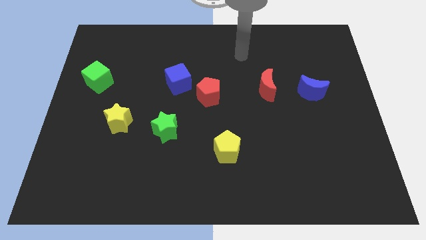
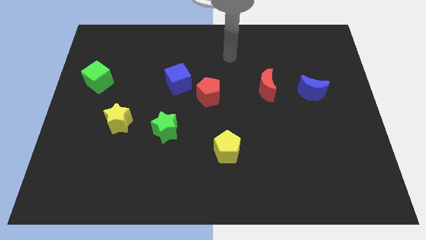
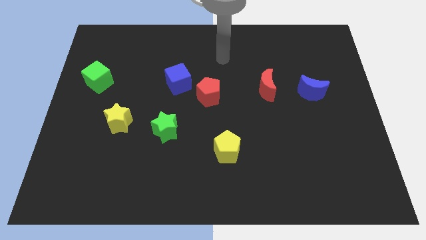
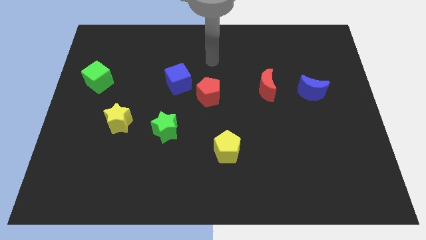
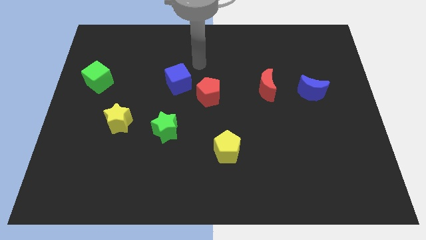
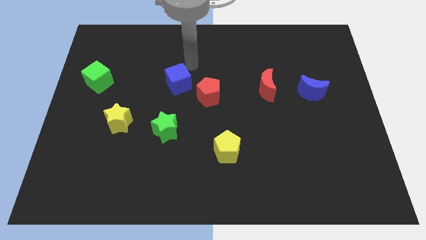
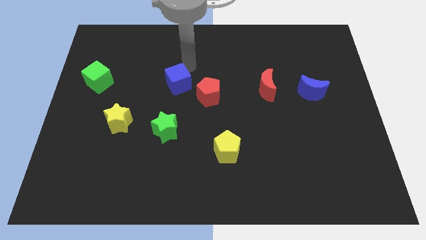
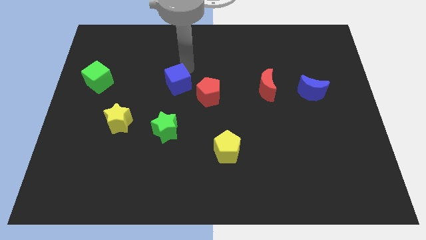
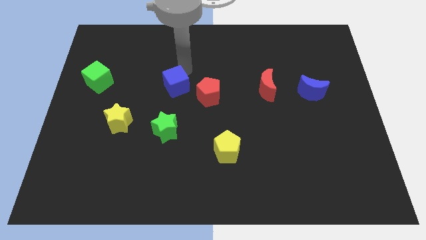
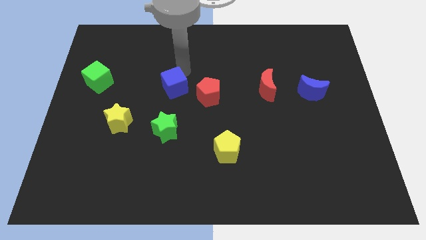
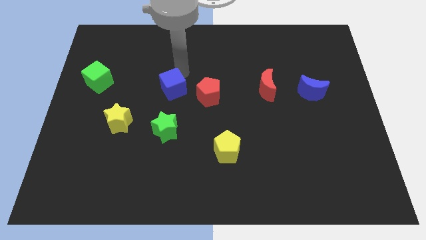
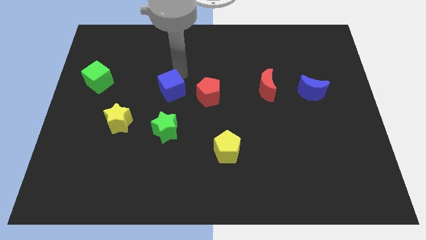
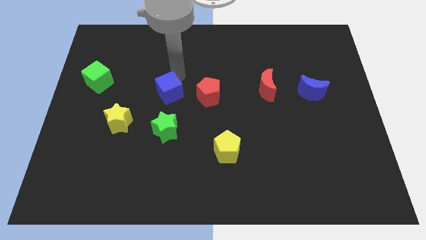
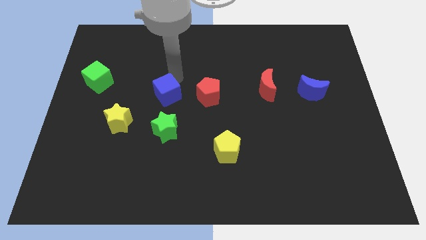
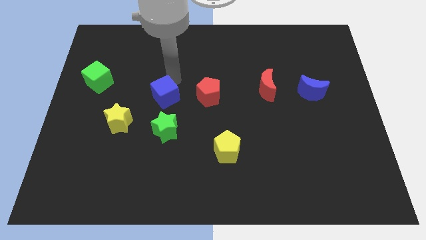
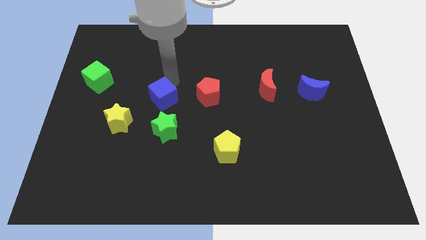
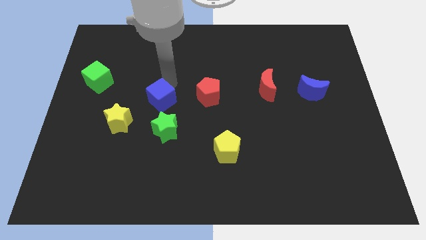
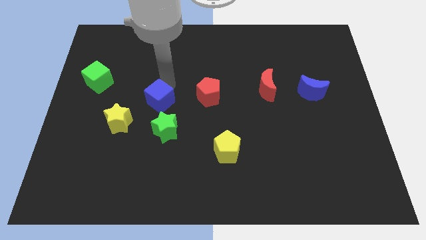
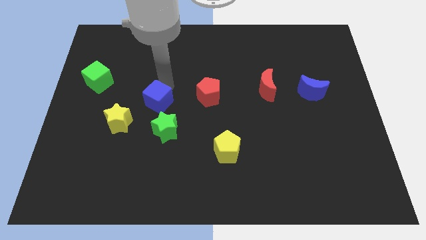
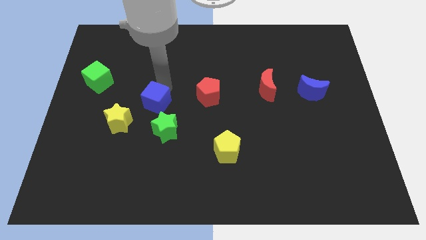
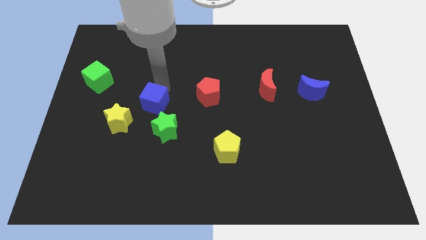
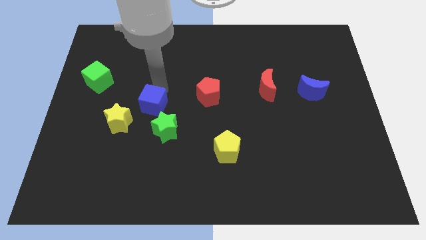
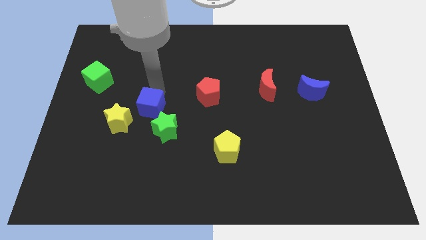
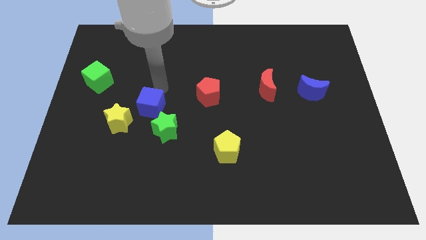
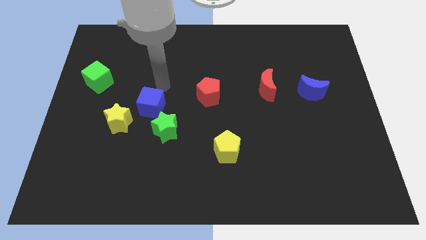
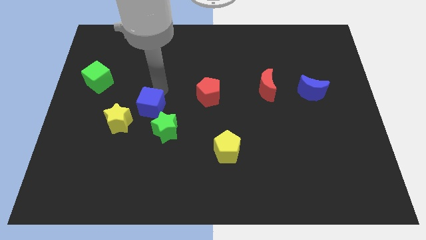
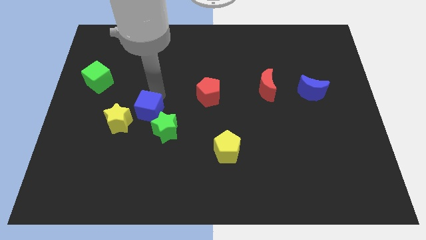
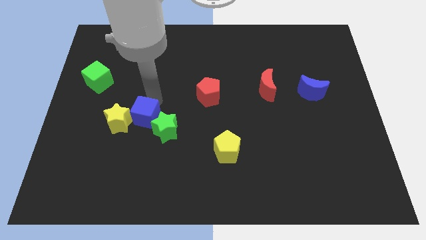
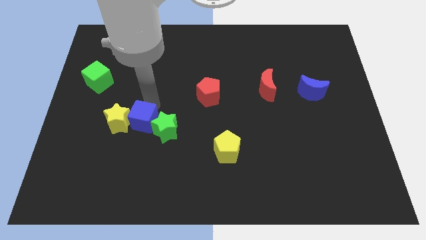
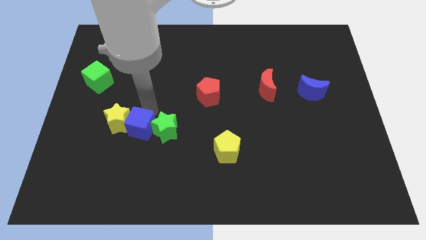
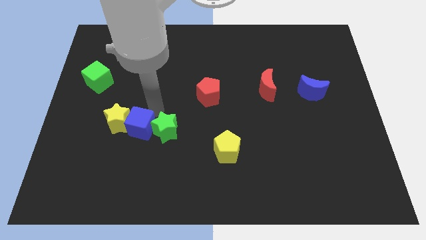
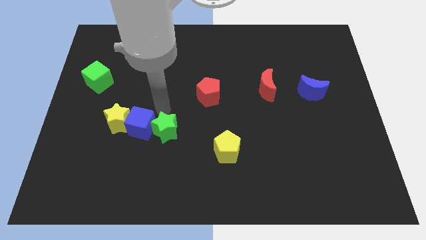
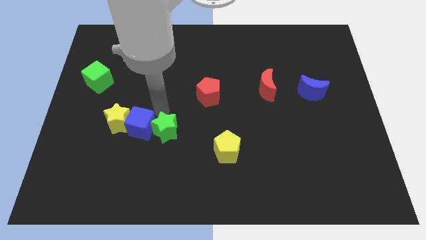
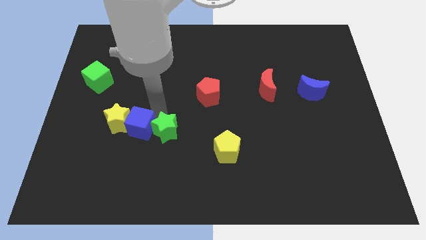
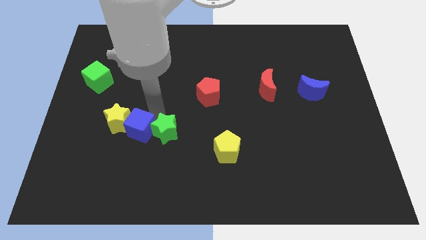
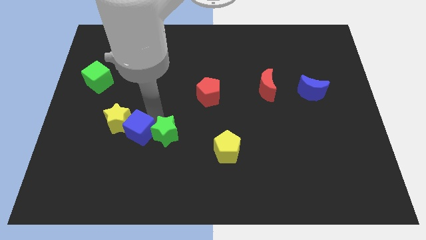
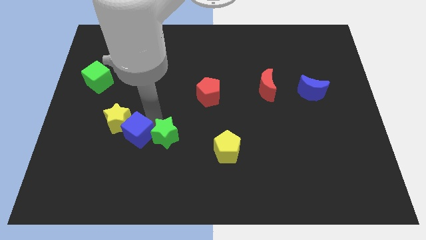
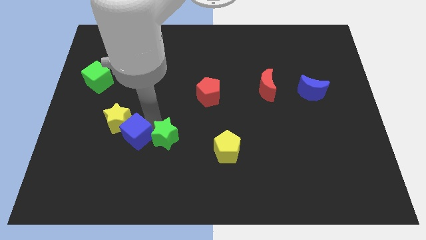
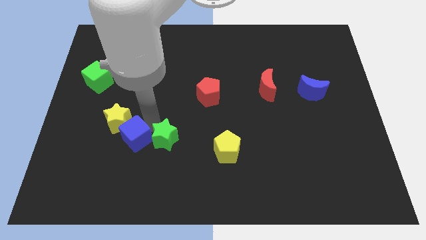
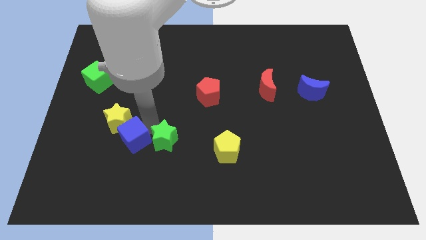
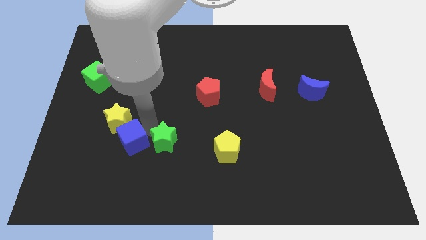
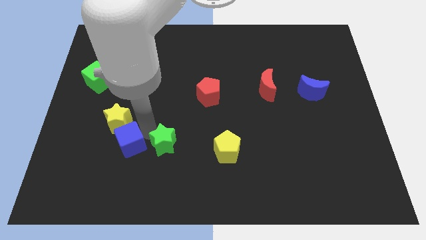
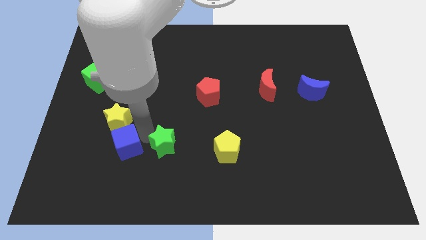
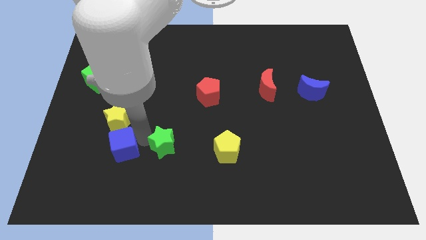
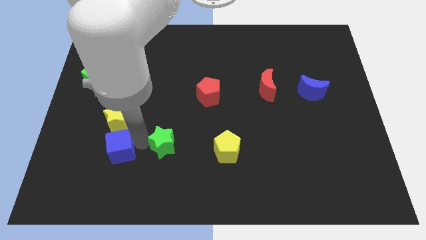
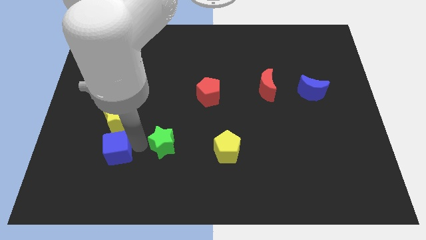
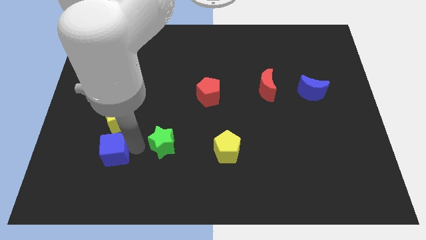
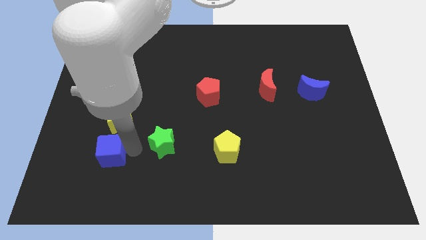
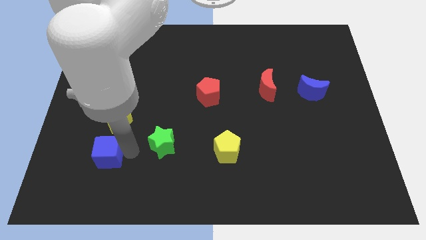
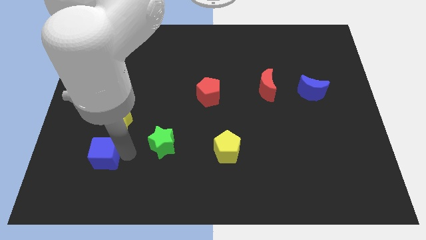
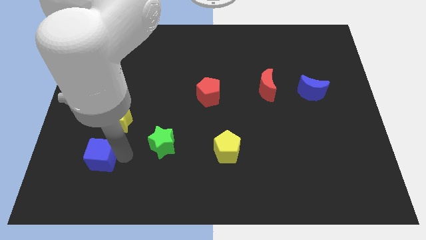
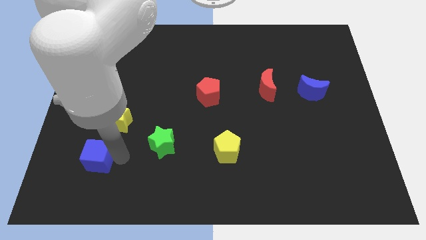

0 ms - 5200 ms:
slide the blue cube to the bottom left side of the yellow star

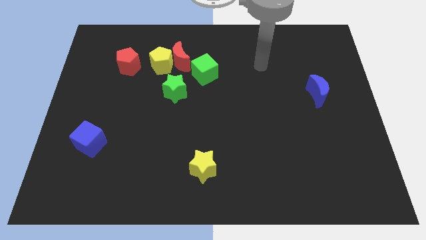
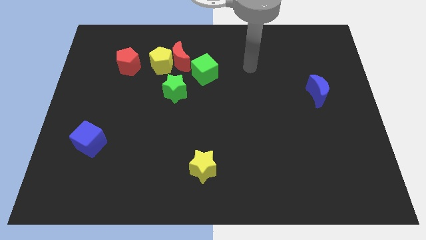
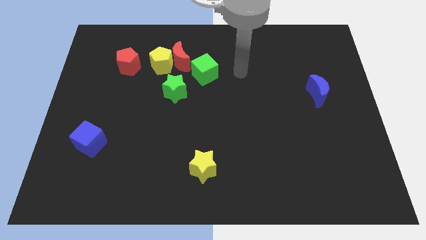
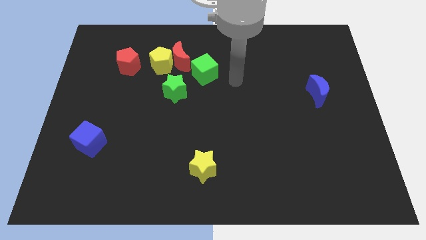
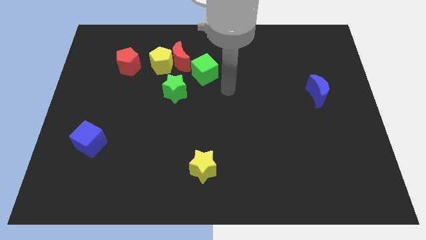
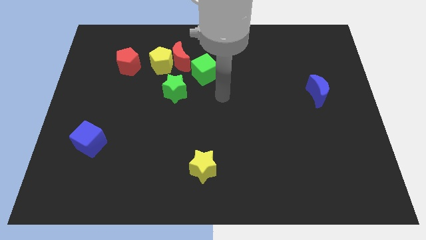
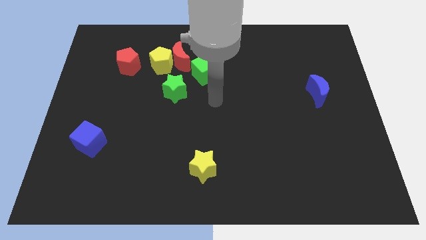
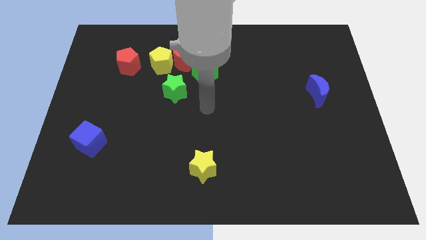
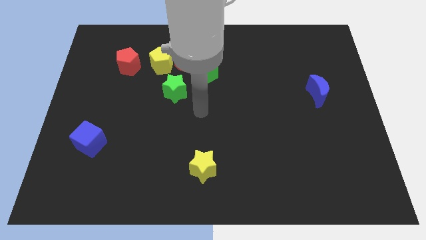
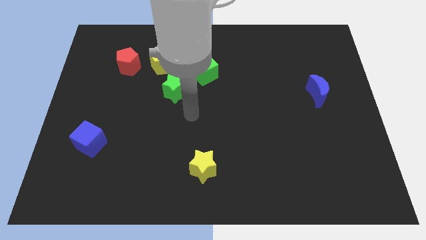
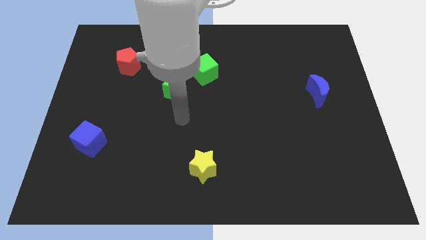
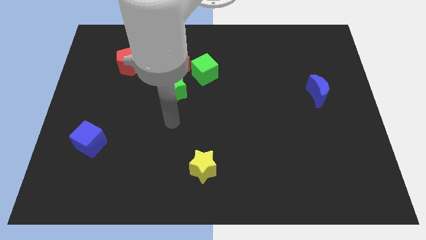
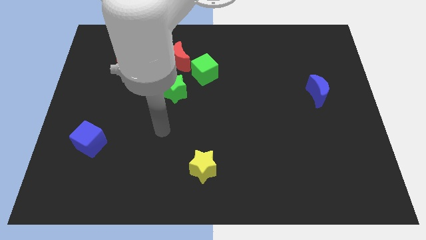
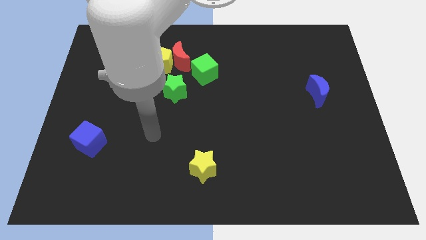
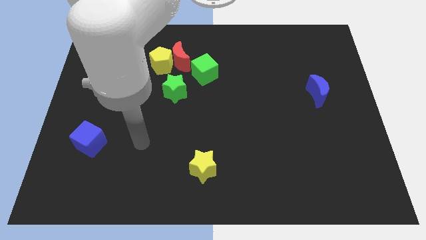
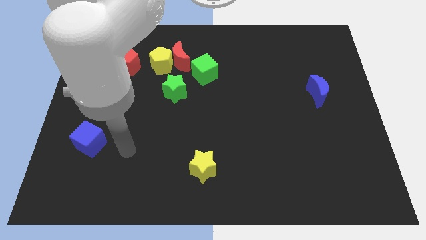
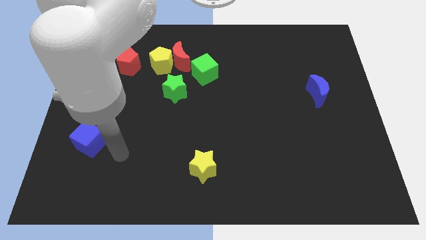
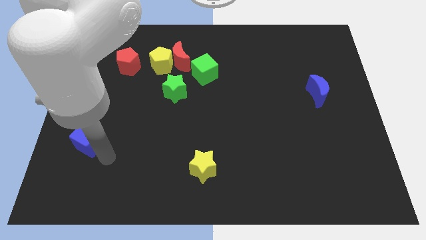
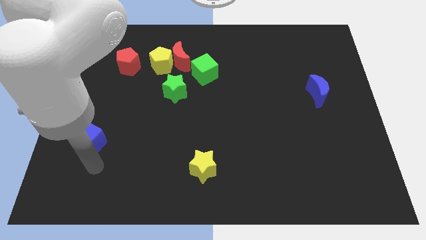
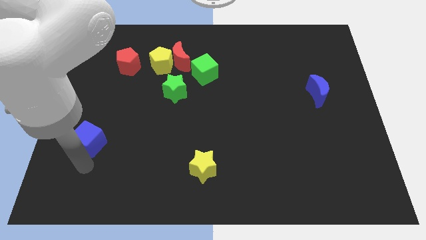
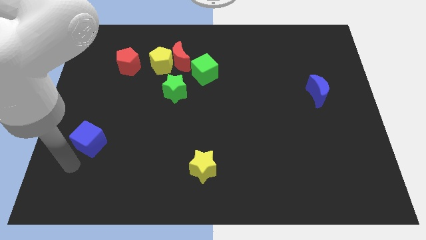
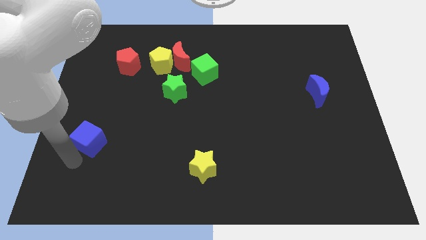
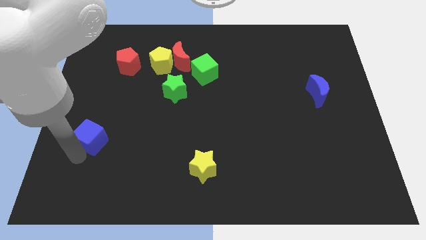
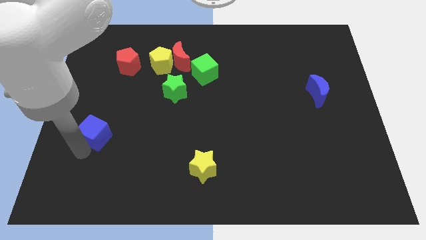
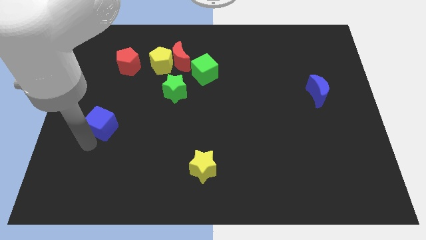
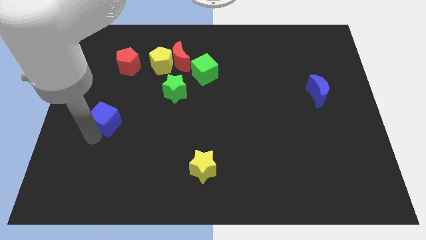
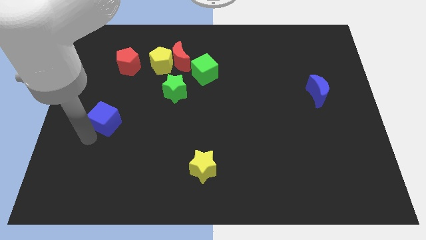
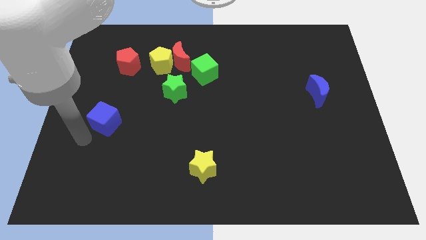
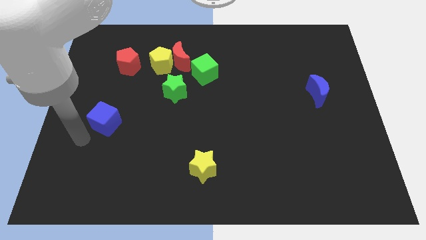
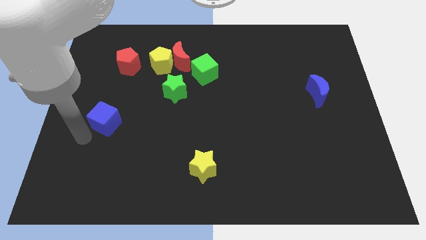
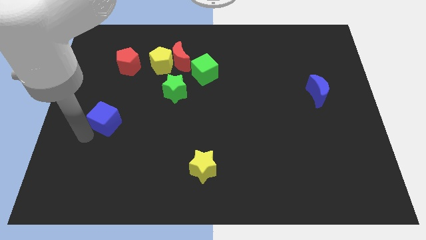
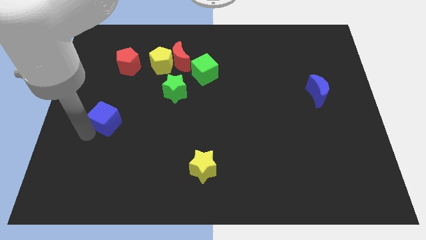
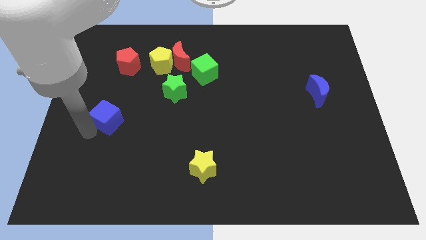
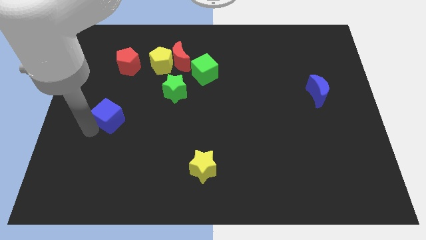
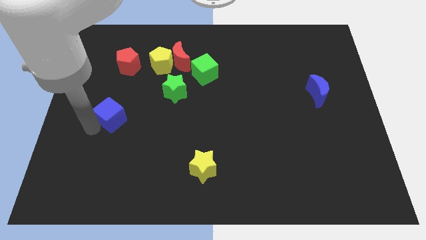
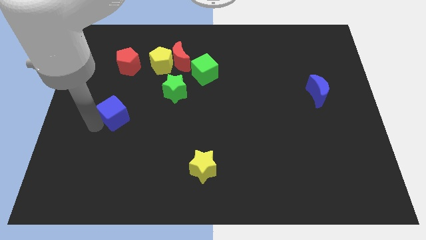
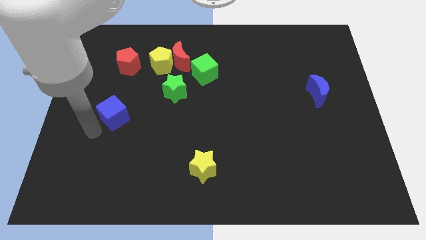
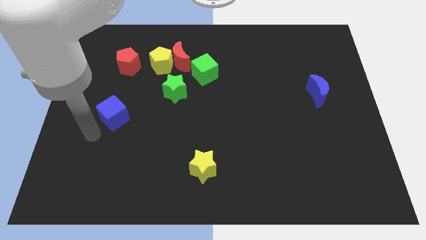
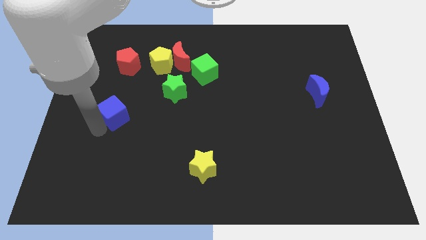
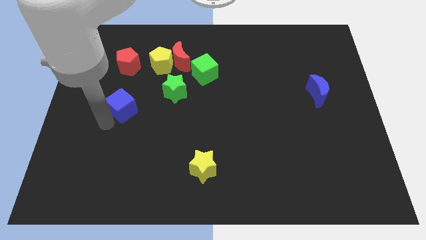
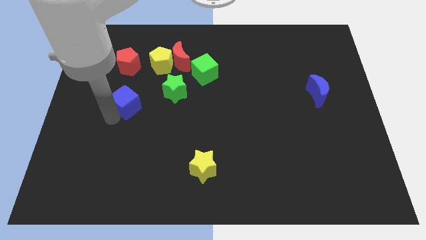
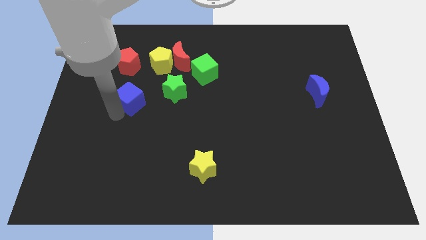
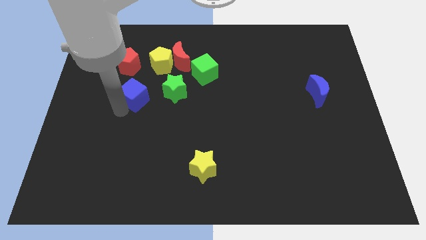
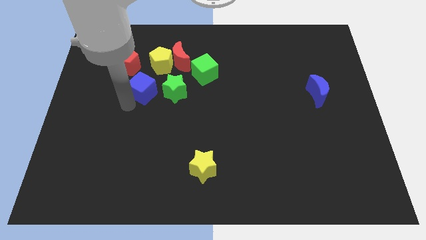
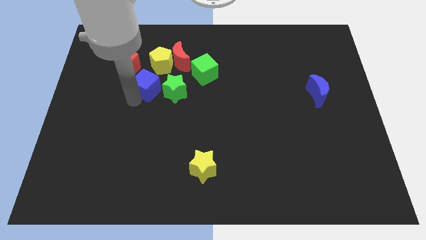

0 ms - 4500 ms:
push the blue cube diagonally up and to the left of the green star
